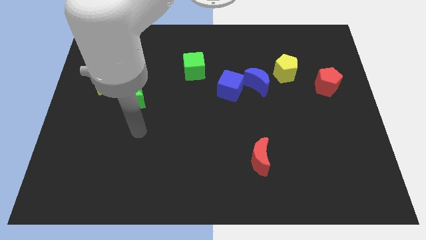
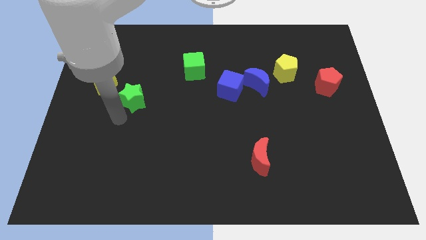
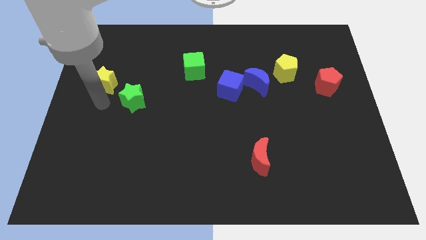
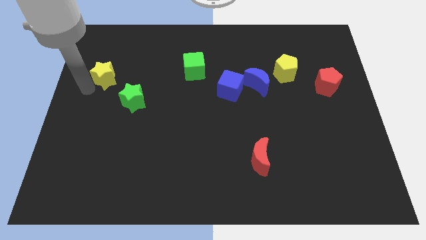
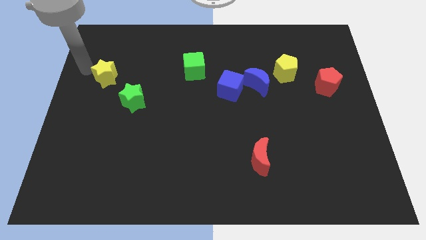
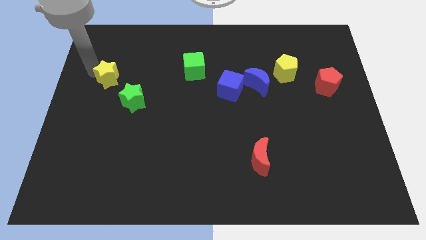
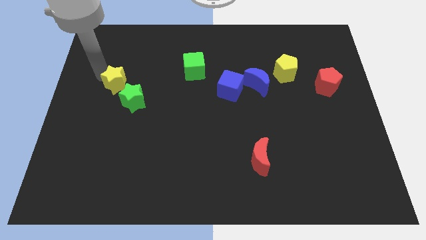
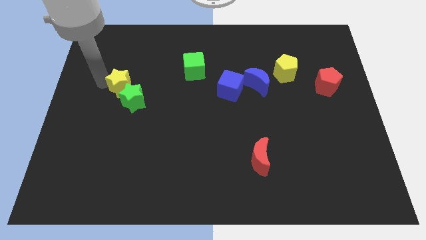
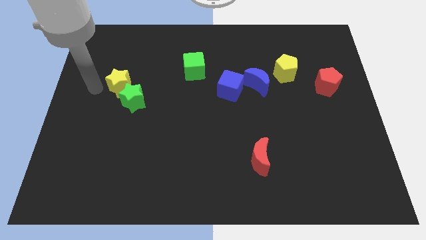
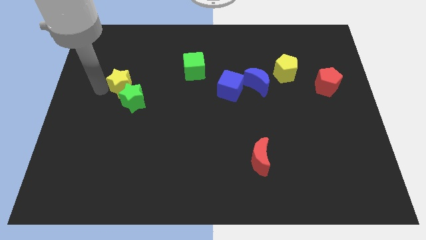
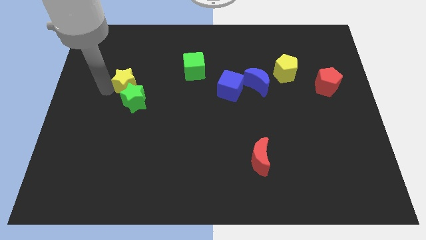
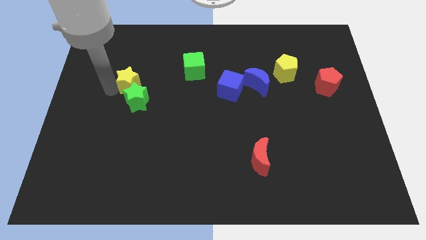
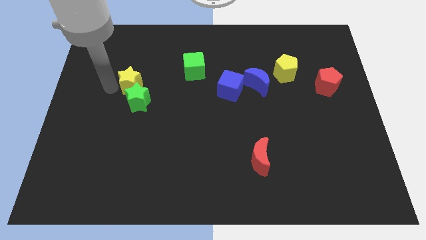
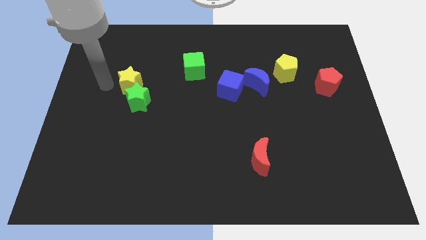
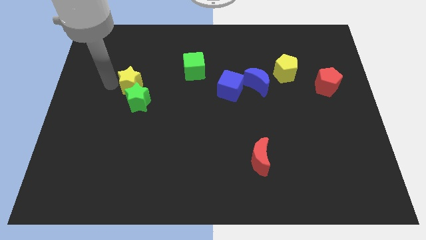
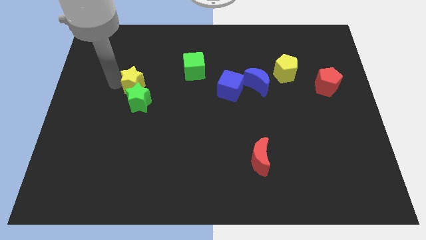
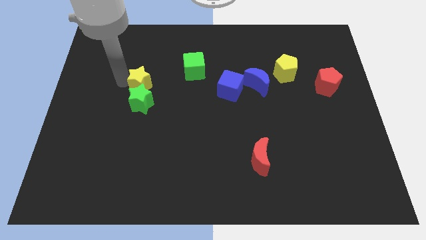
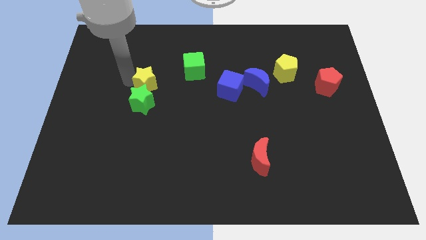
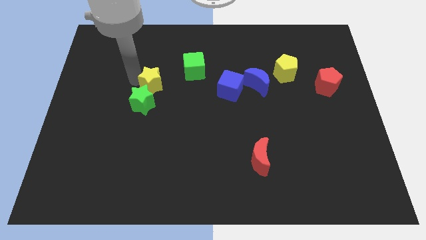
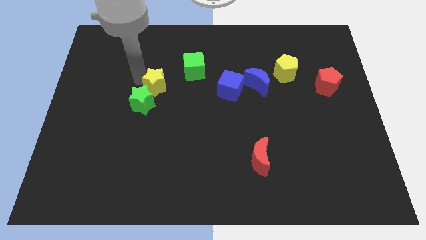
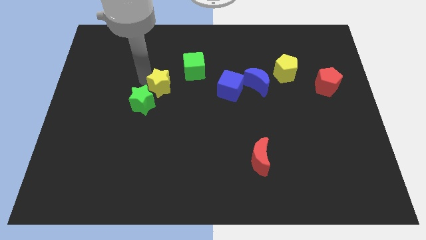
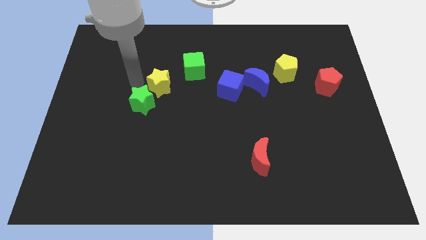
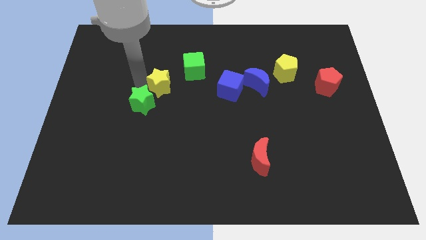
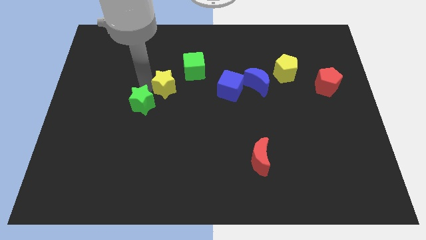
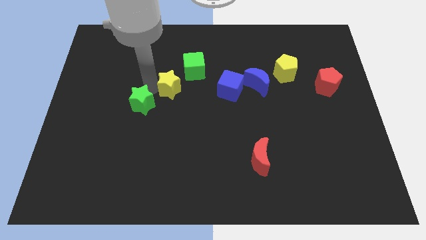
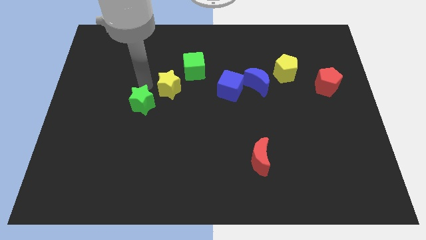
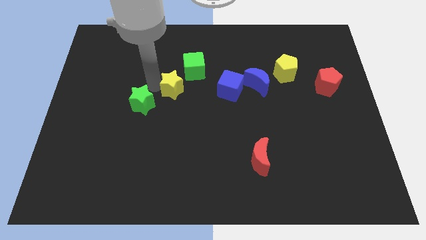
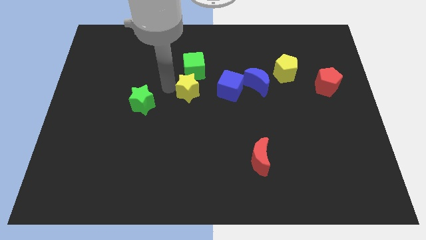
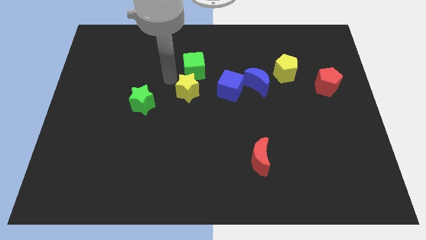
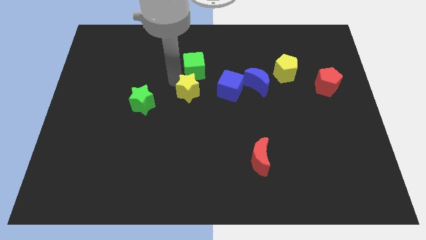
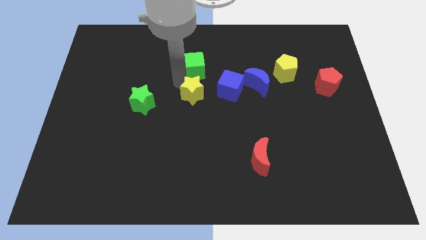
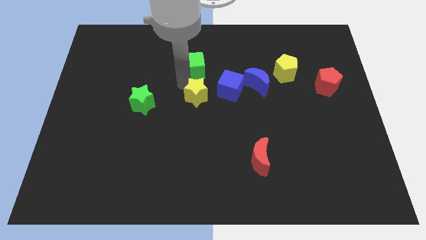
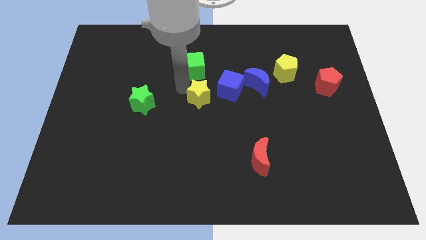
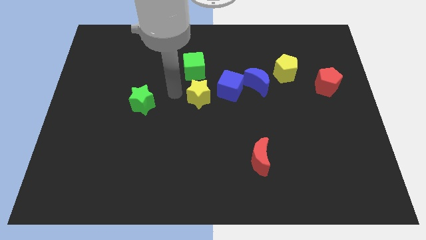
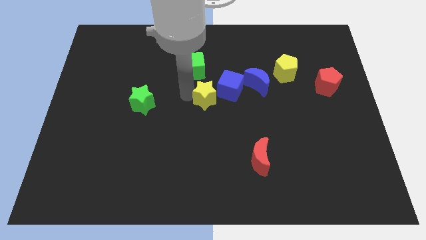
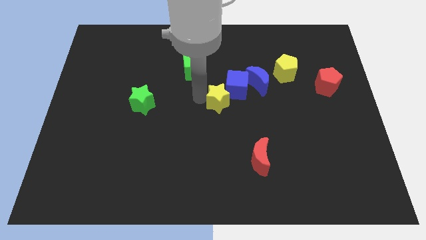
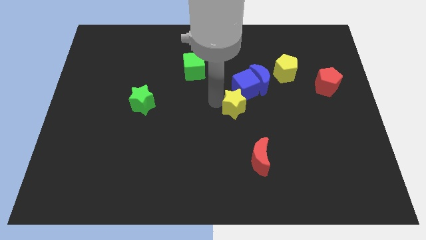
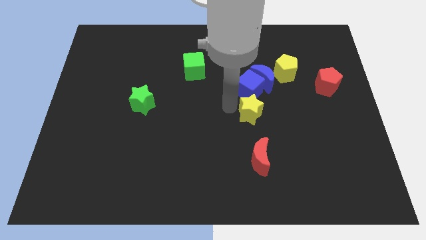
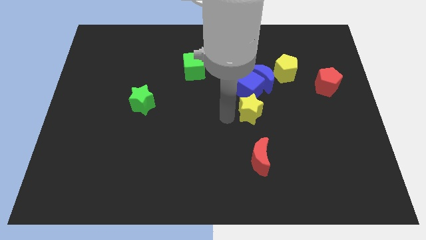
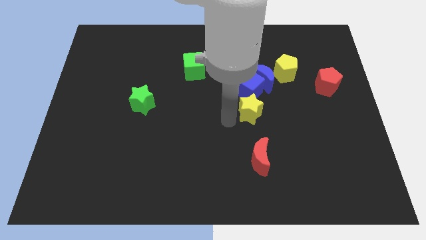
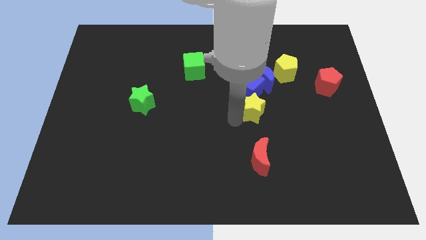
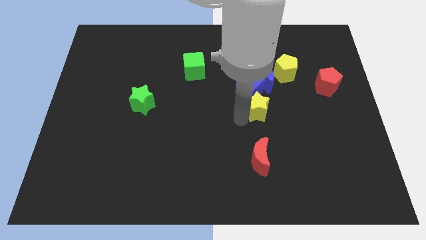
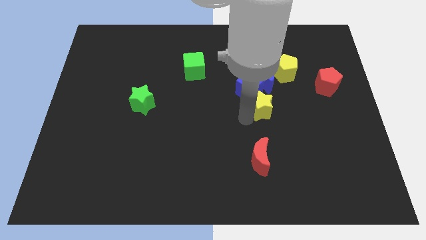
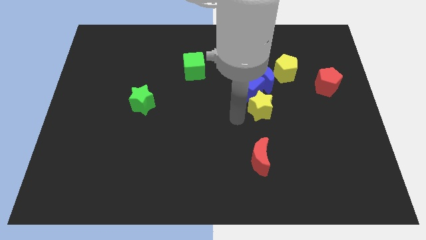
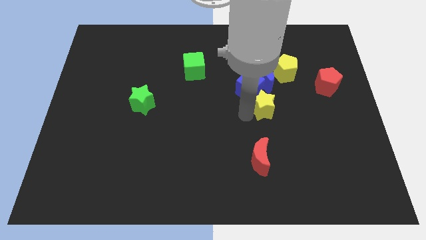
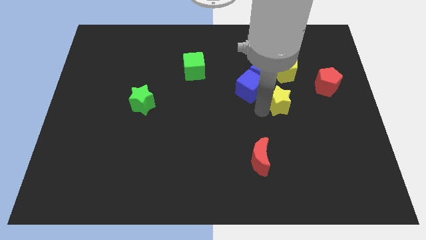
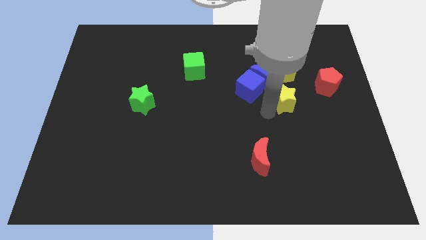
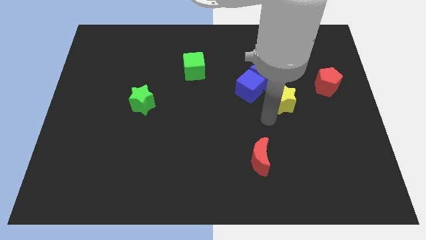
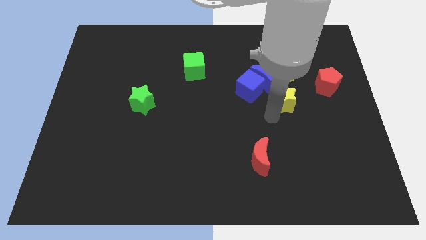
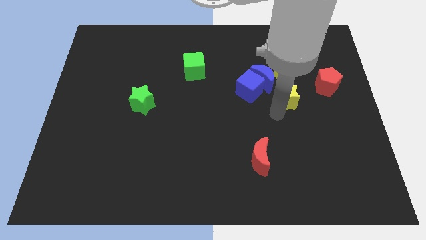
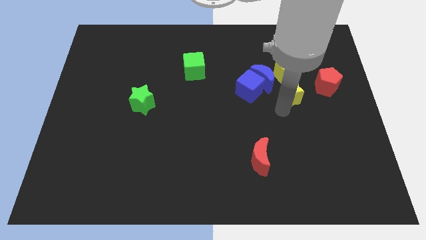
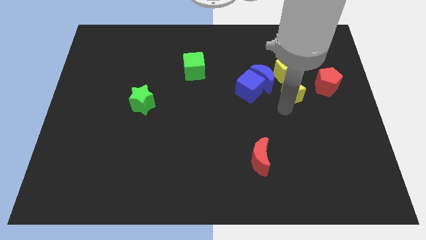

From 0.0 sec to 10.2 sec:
slide the yellow star to the right side of the blue moon

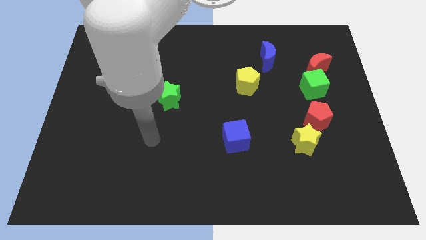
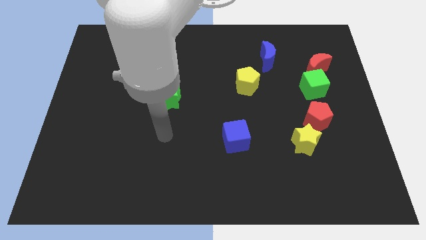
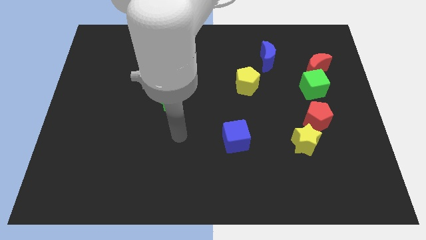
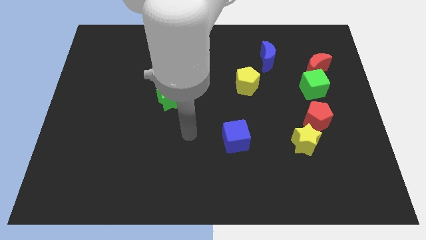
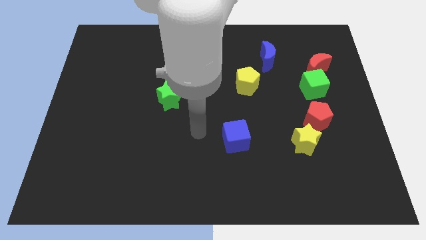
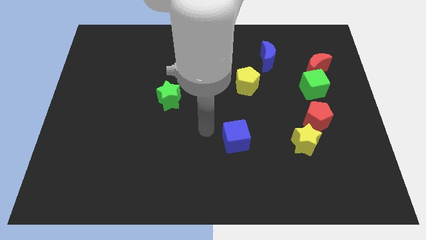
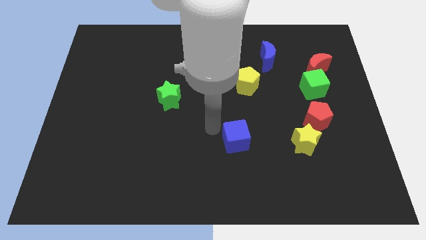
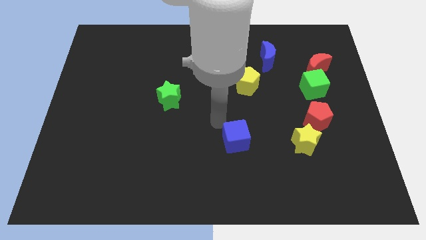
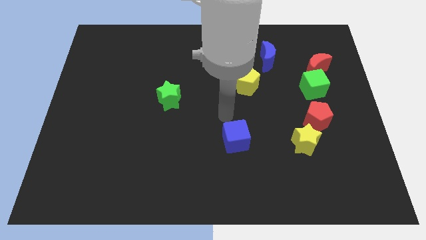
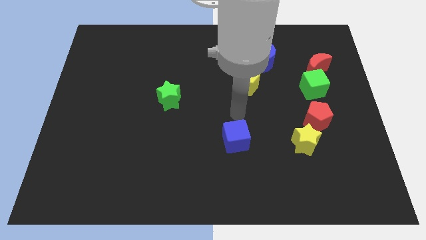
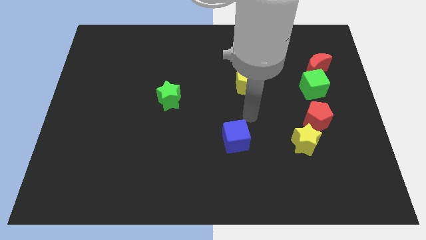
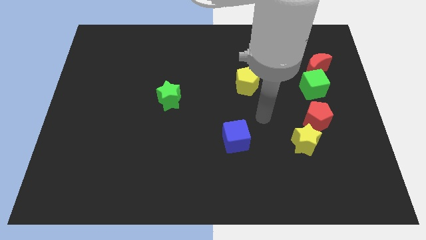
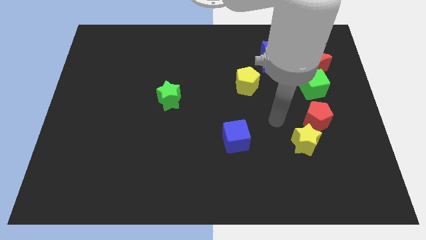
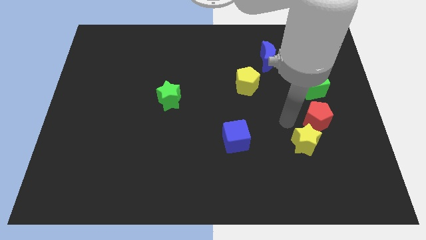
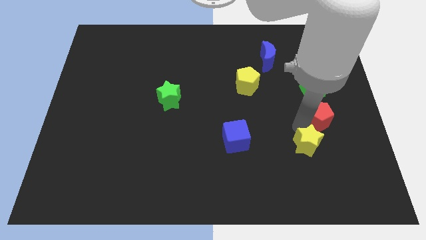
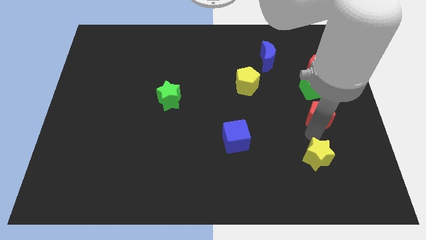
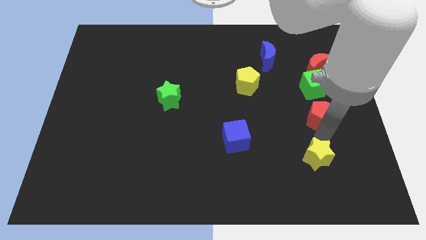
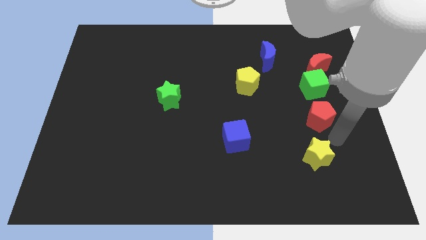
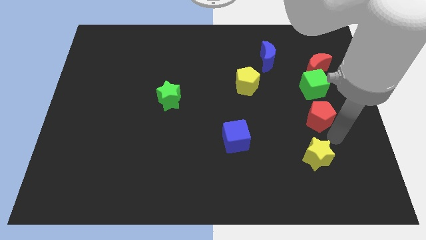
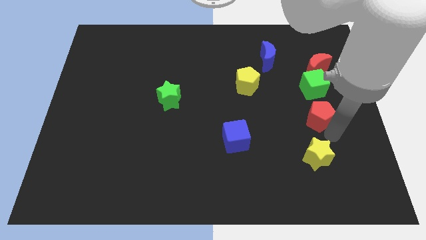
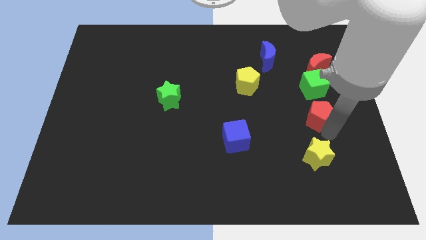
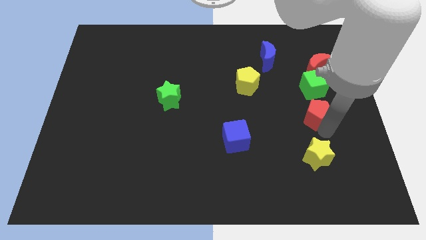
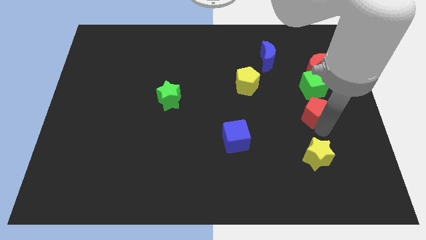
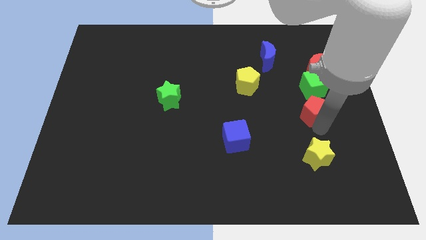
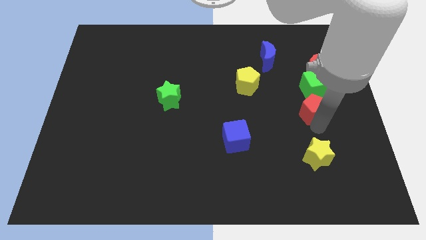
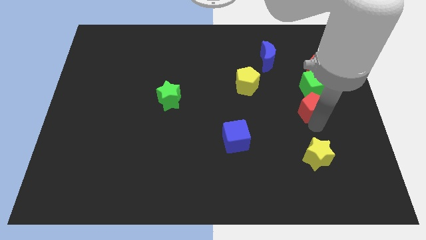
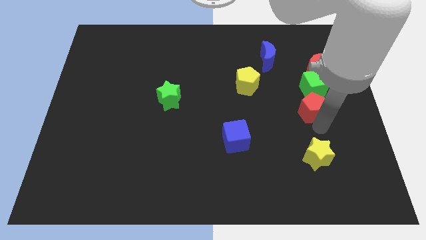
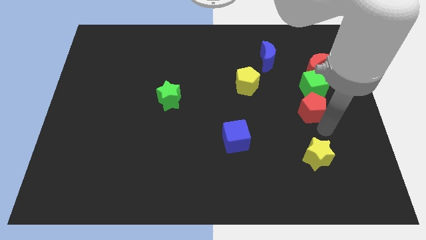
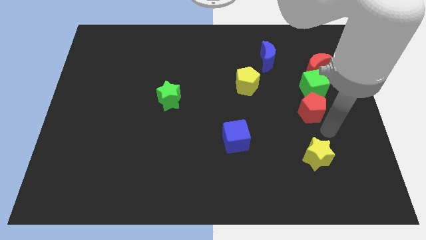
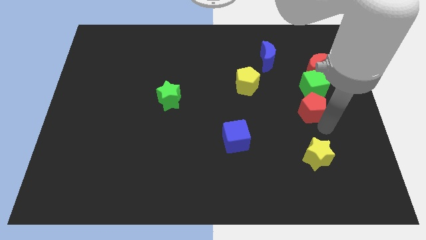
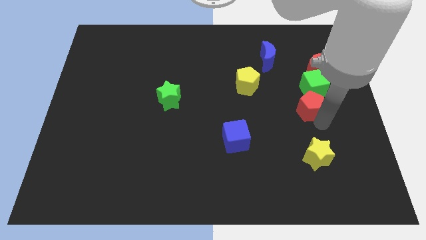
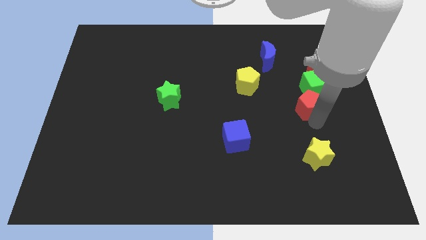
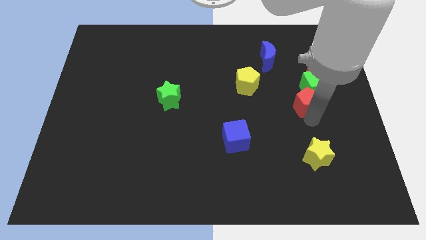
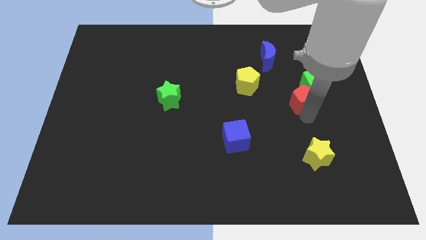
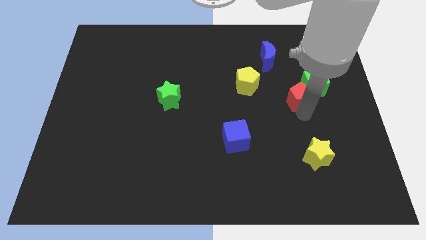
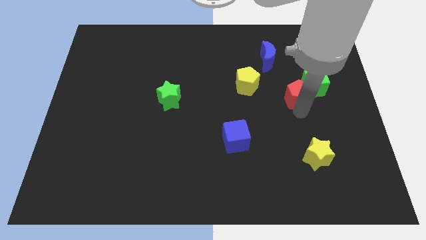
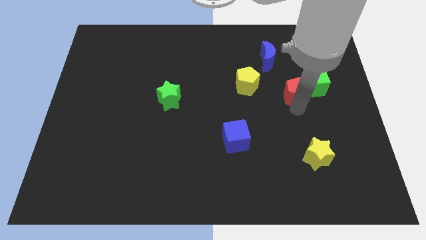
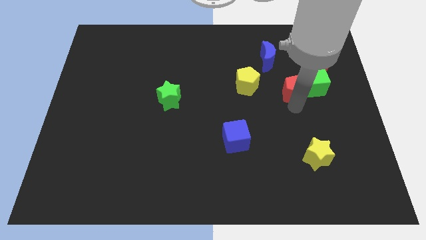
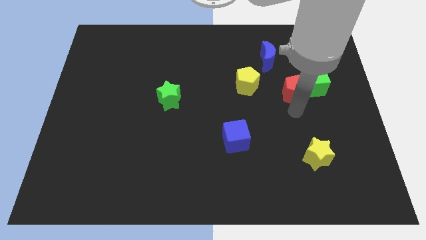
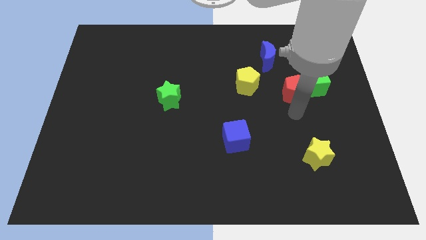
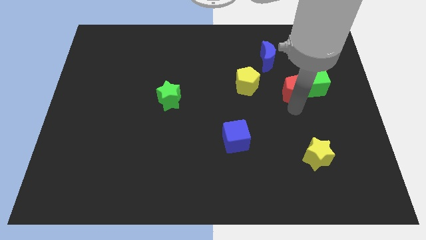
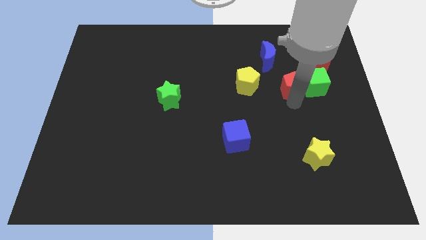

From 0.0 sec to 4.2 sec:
push the red pentagon to the bottom right of the blue moon
